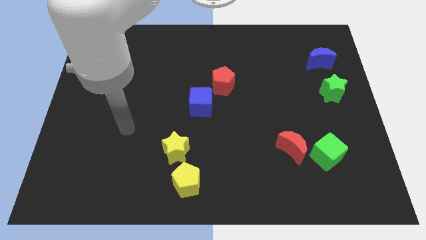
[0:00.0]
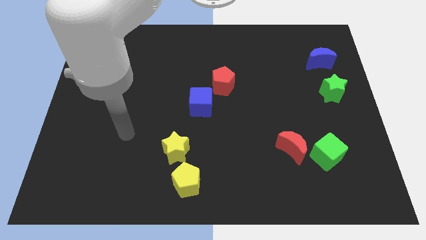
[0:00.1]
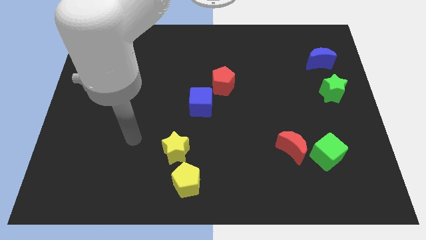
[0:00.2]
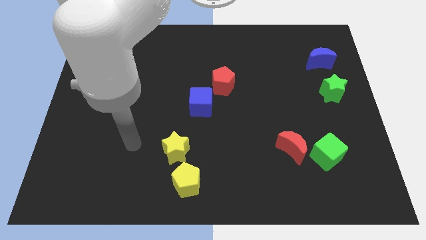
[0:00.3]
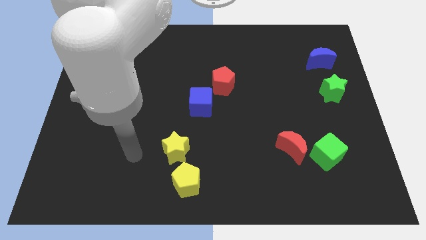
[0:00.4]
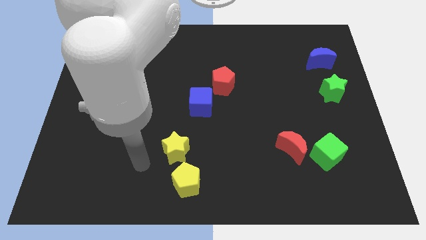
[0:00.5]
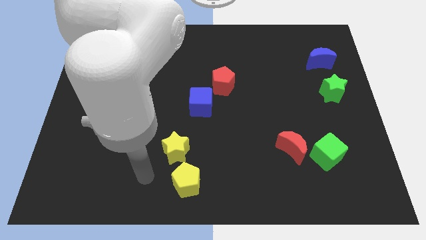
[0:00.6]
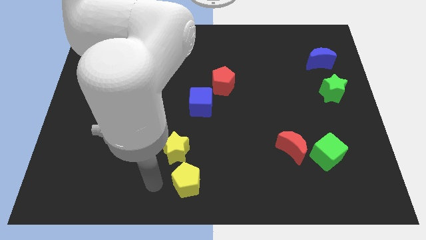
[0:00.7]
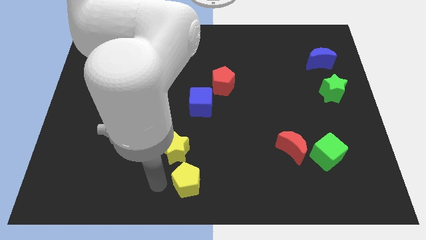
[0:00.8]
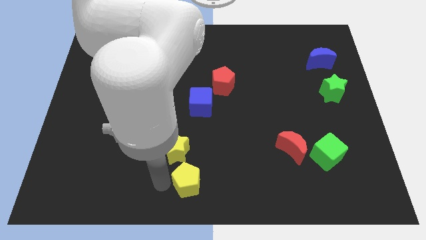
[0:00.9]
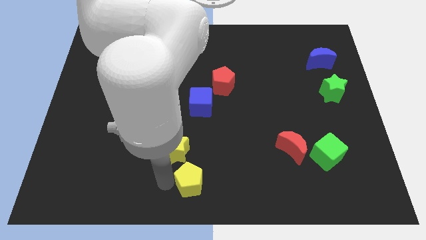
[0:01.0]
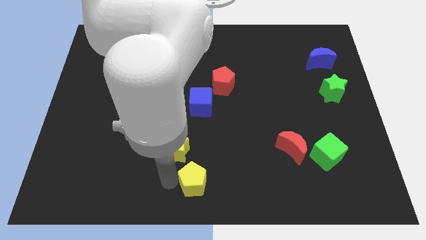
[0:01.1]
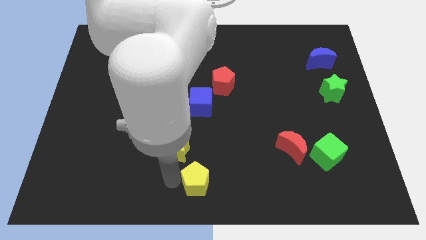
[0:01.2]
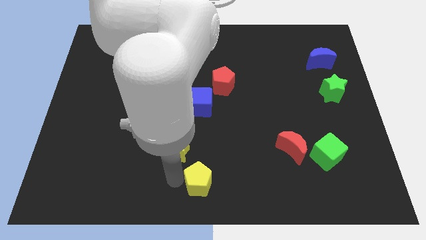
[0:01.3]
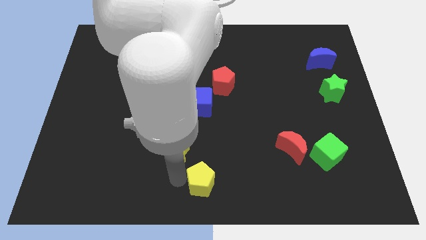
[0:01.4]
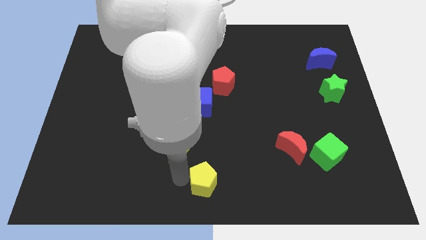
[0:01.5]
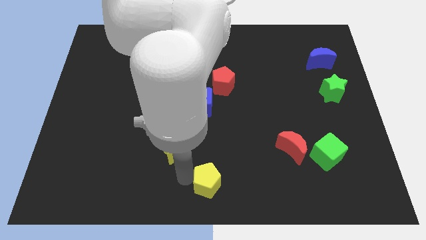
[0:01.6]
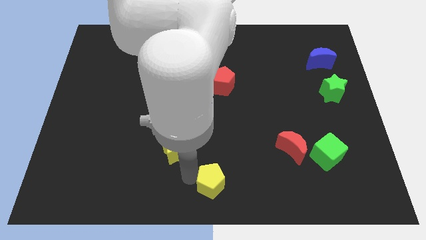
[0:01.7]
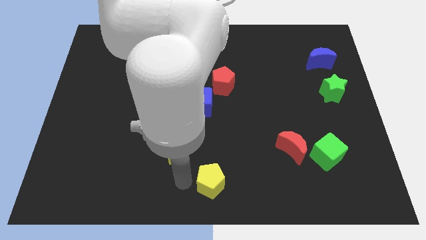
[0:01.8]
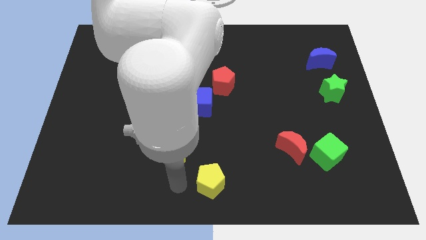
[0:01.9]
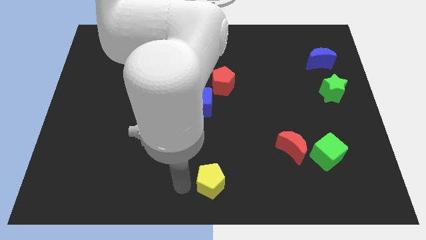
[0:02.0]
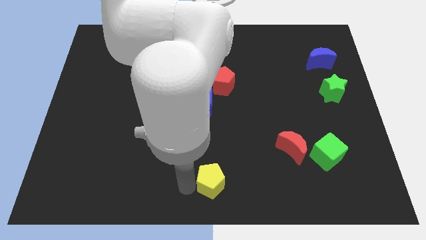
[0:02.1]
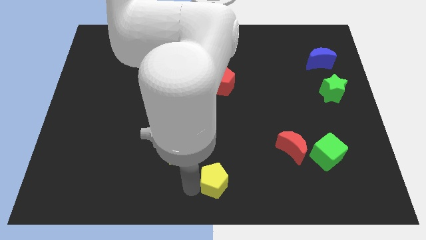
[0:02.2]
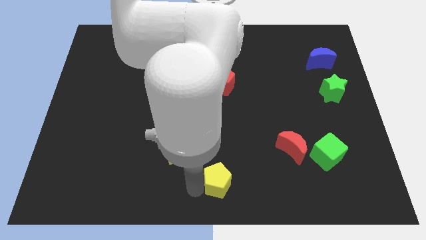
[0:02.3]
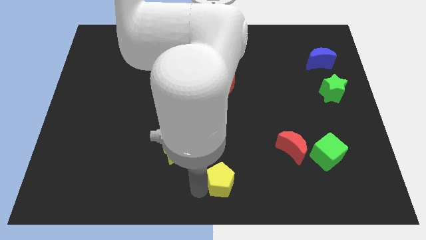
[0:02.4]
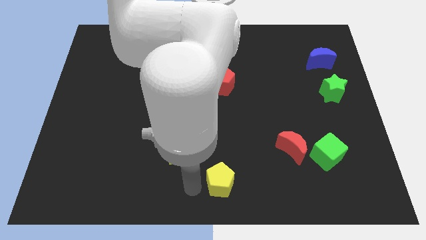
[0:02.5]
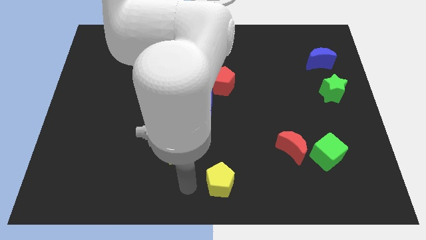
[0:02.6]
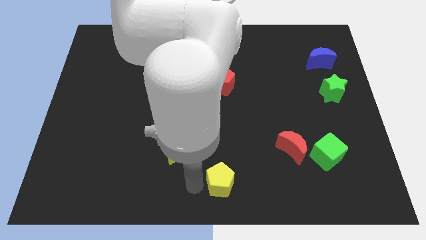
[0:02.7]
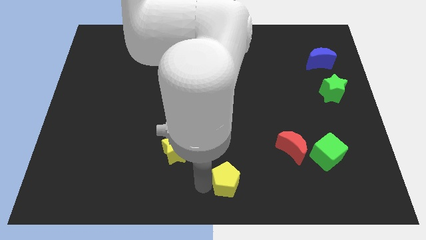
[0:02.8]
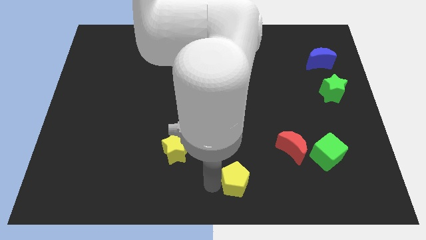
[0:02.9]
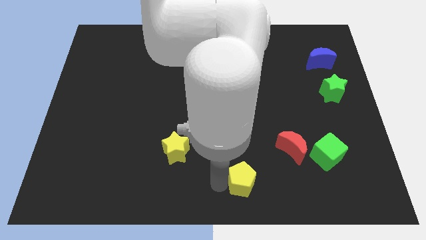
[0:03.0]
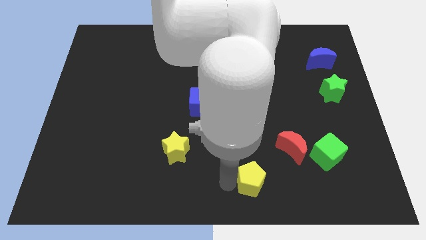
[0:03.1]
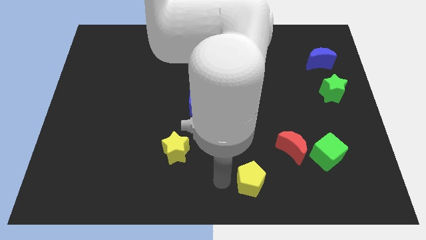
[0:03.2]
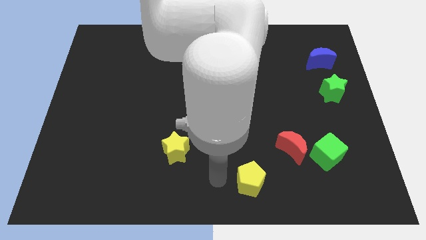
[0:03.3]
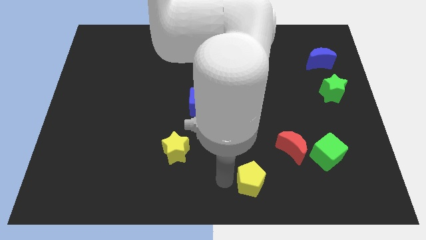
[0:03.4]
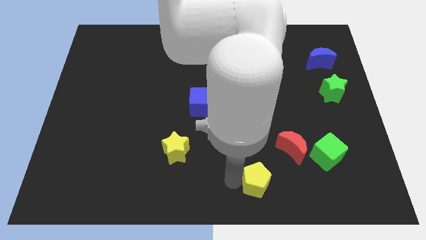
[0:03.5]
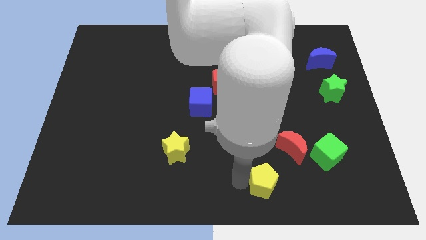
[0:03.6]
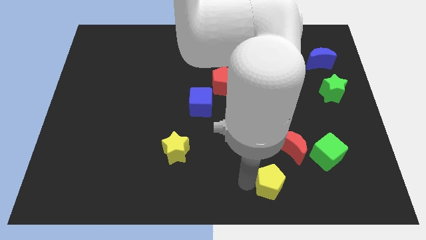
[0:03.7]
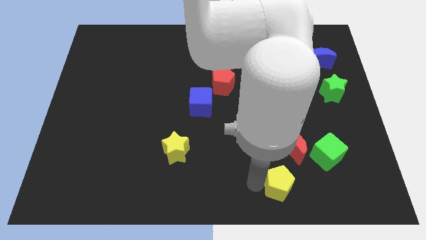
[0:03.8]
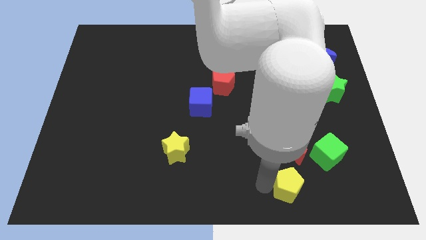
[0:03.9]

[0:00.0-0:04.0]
slide the yellow pentagon to the right

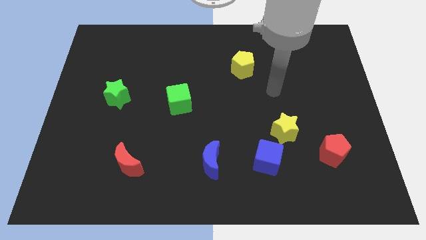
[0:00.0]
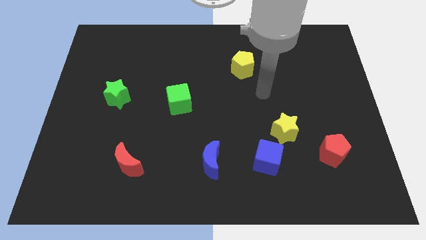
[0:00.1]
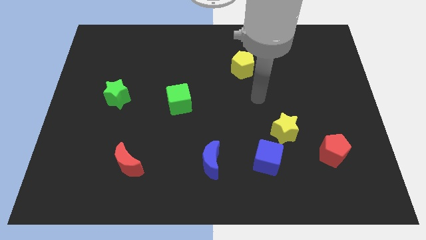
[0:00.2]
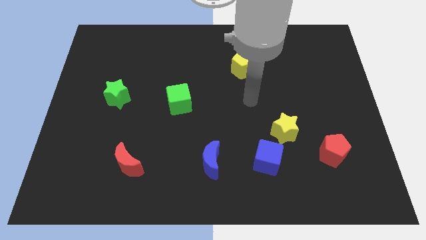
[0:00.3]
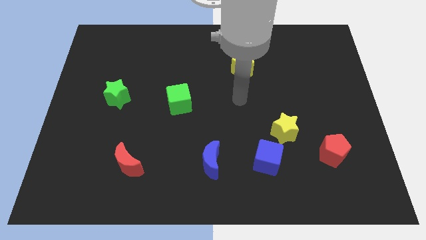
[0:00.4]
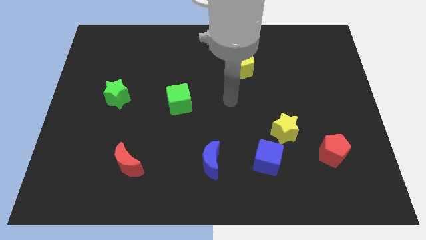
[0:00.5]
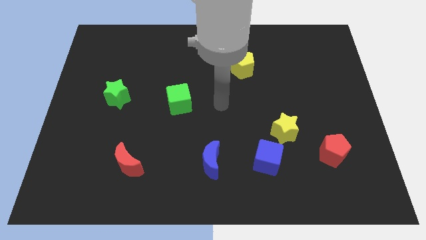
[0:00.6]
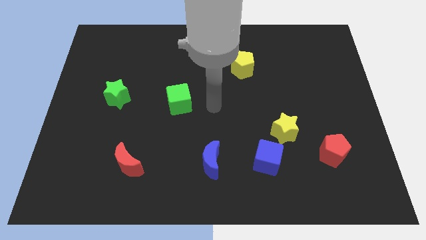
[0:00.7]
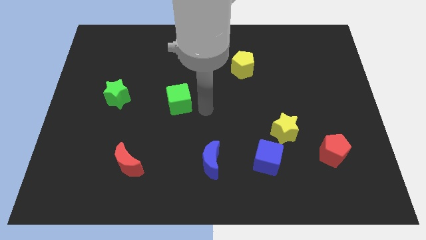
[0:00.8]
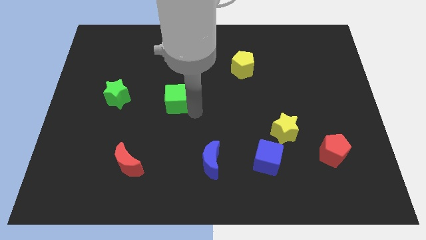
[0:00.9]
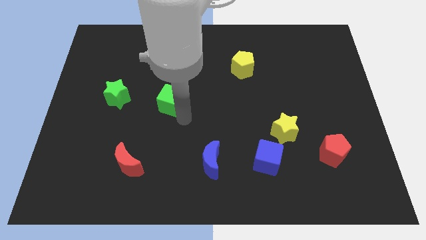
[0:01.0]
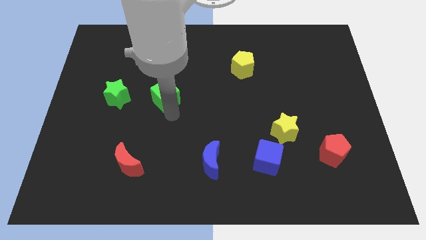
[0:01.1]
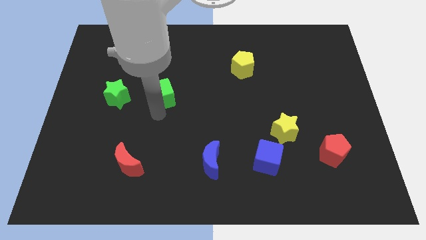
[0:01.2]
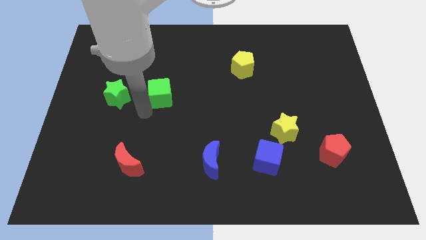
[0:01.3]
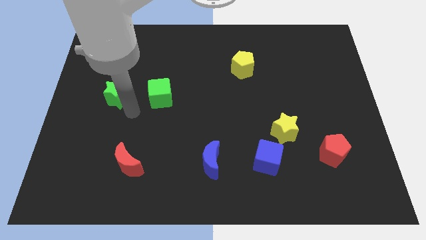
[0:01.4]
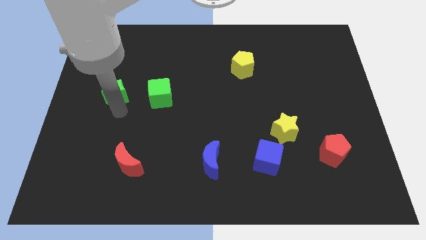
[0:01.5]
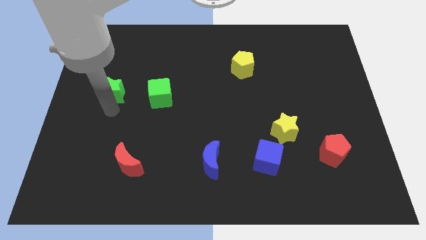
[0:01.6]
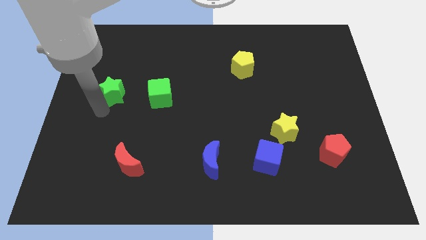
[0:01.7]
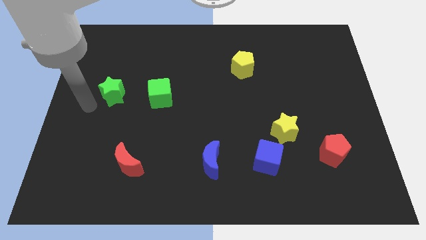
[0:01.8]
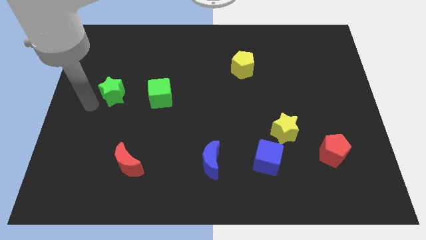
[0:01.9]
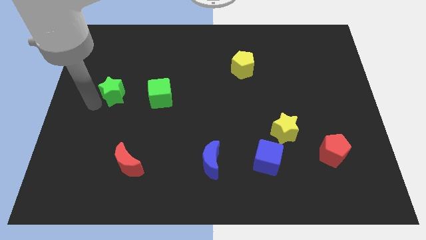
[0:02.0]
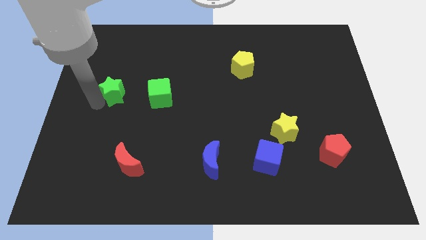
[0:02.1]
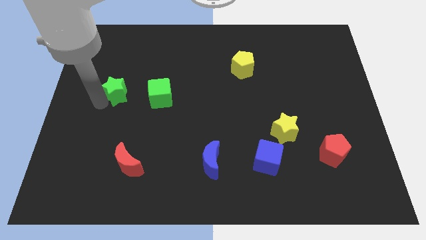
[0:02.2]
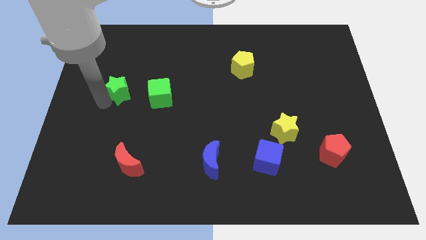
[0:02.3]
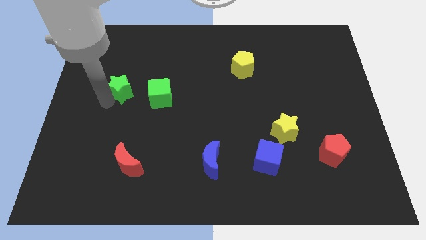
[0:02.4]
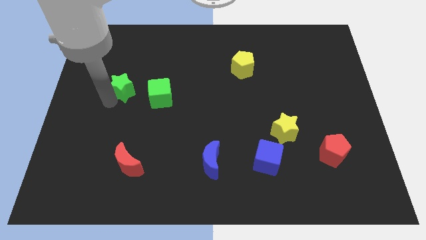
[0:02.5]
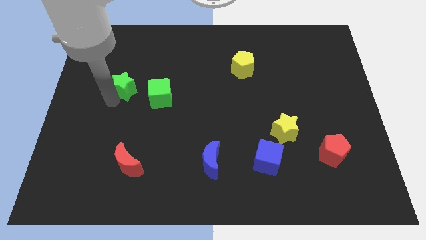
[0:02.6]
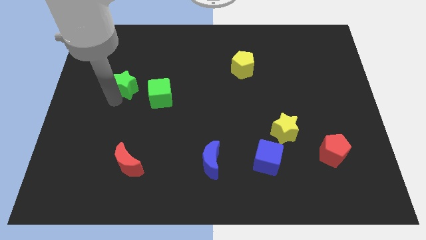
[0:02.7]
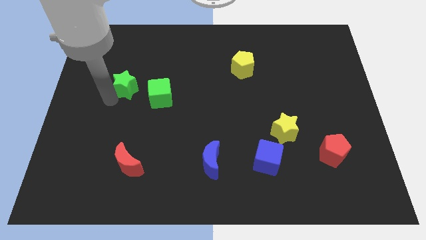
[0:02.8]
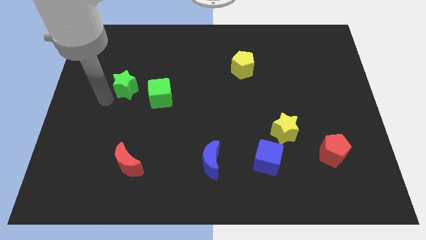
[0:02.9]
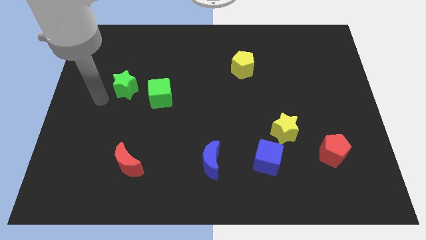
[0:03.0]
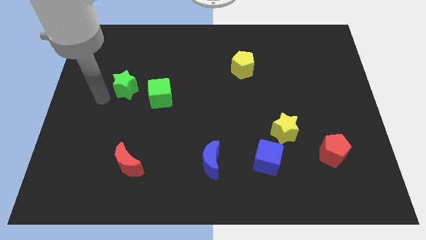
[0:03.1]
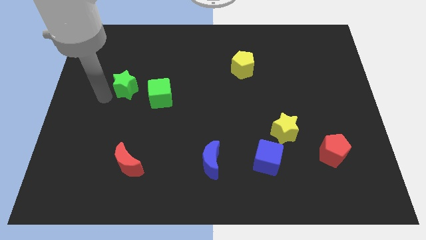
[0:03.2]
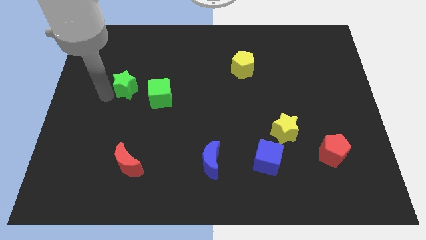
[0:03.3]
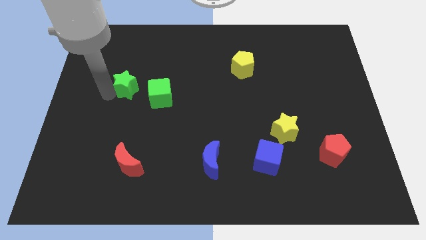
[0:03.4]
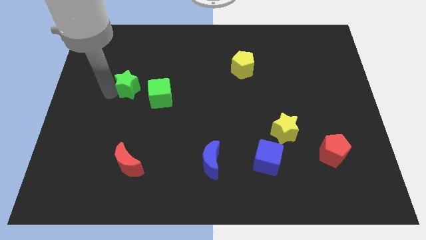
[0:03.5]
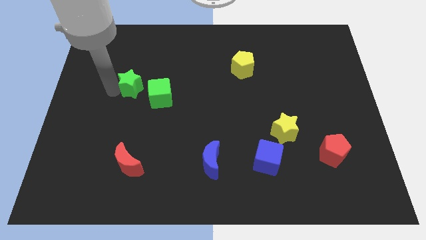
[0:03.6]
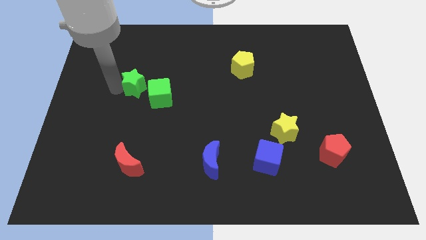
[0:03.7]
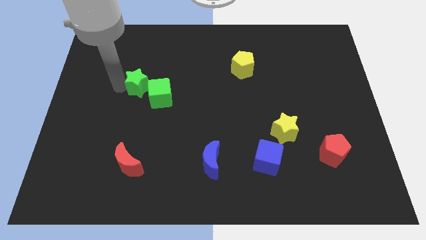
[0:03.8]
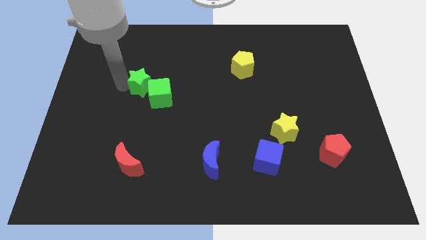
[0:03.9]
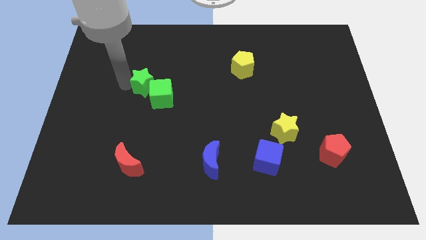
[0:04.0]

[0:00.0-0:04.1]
move the green star upwards and then to the right slightly

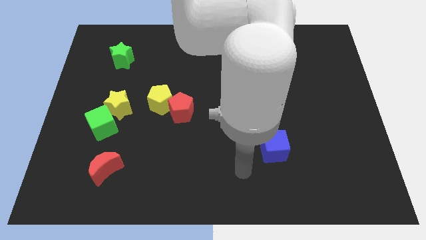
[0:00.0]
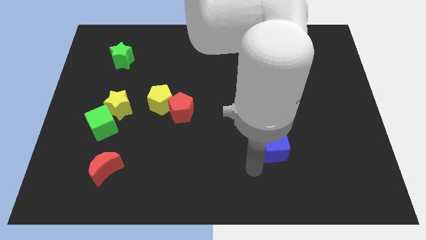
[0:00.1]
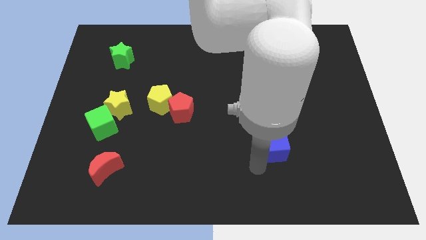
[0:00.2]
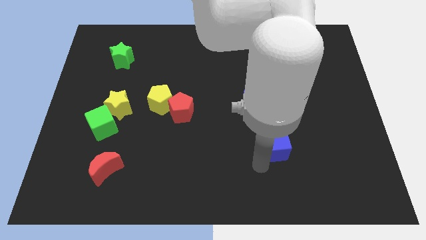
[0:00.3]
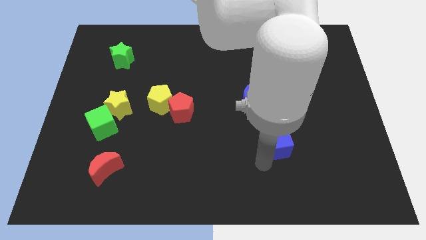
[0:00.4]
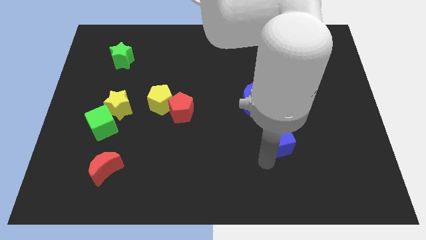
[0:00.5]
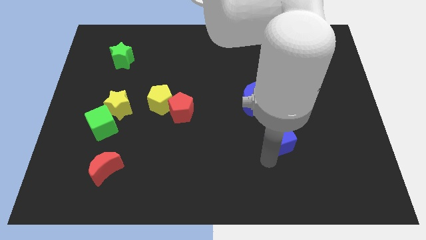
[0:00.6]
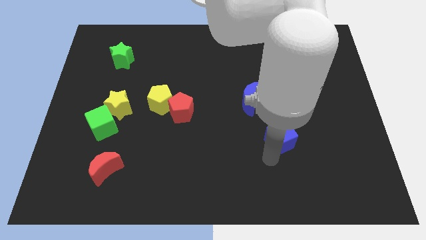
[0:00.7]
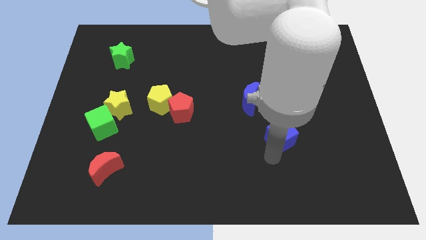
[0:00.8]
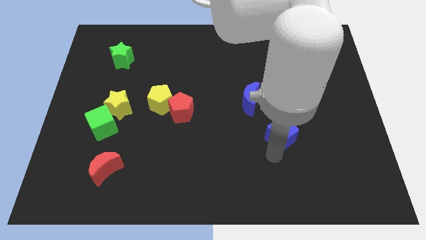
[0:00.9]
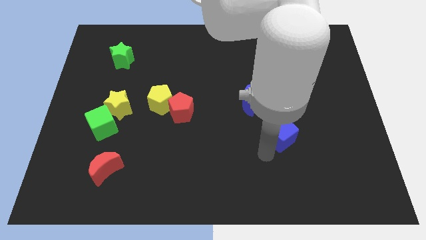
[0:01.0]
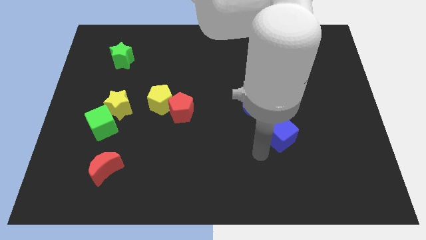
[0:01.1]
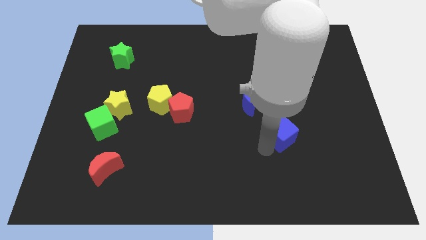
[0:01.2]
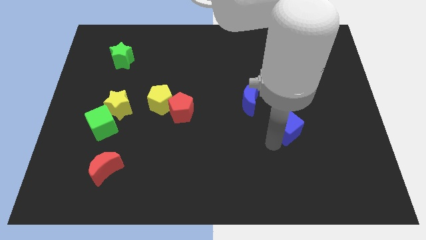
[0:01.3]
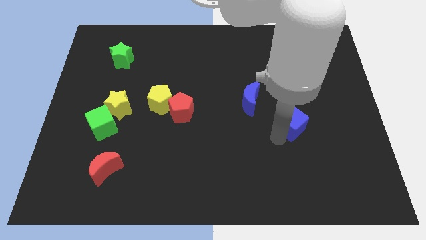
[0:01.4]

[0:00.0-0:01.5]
push the blue cube a little bit upwards and to the right
